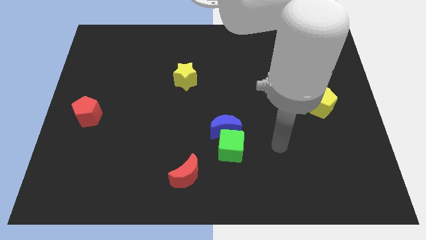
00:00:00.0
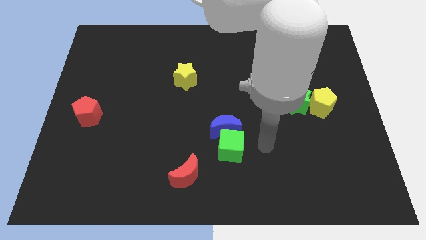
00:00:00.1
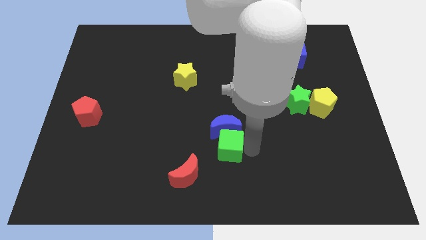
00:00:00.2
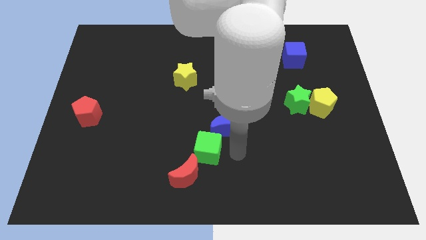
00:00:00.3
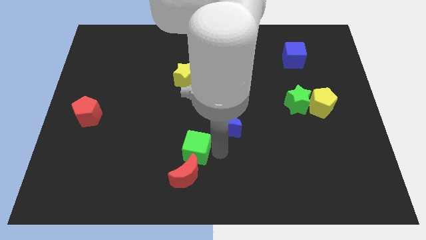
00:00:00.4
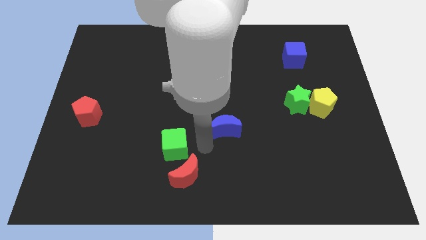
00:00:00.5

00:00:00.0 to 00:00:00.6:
move the blue moon away from the green cube

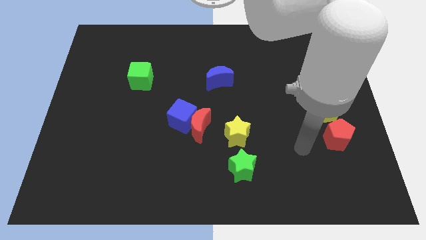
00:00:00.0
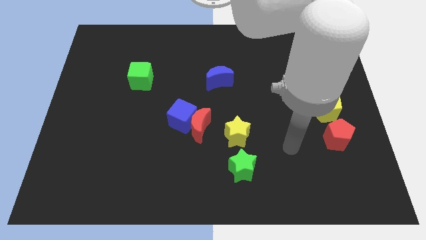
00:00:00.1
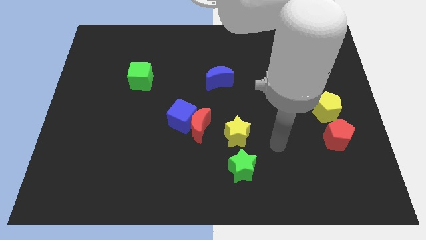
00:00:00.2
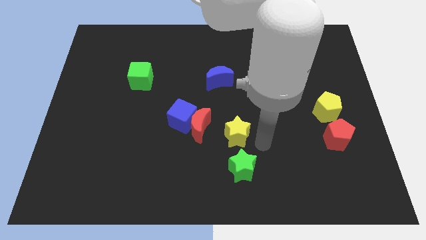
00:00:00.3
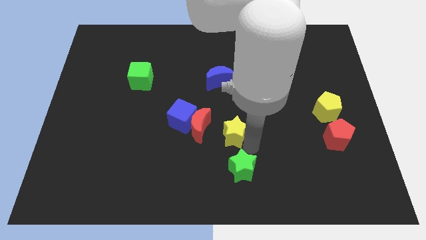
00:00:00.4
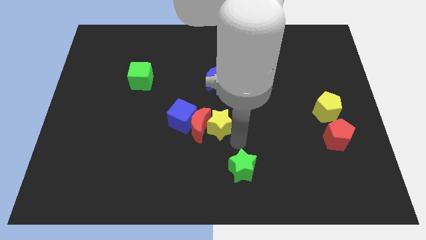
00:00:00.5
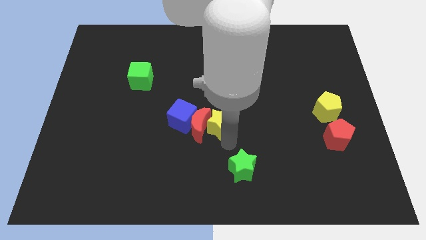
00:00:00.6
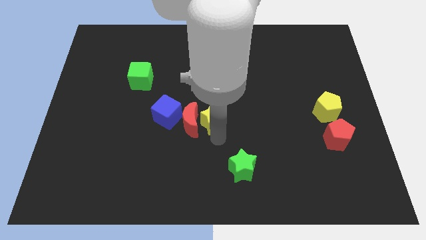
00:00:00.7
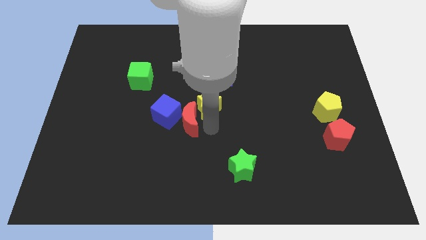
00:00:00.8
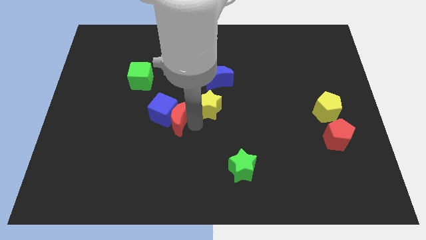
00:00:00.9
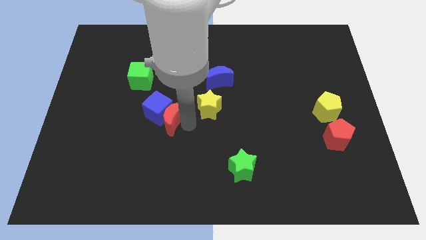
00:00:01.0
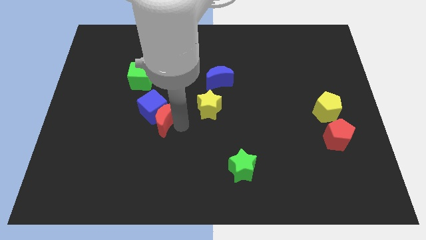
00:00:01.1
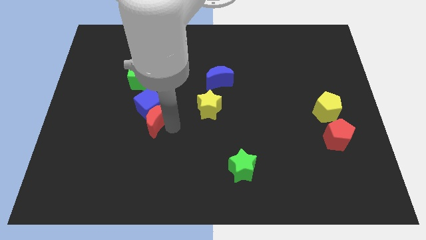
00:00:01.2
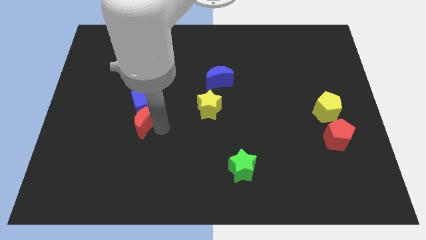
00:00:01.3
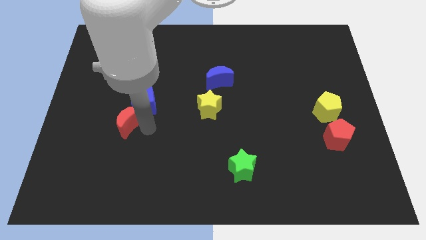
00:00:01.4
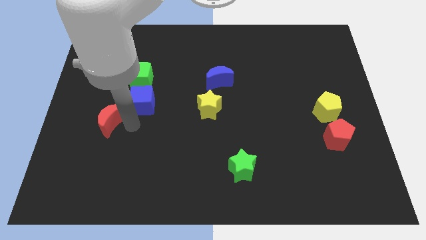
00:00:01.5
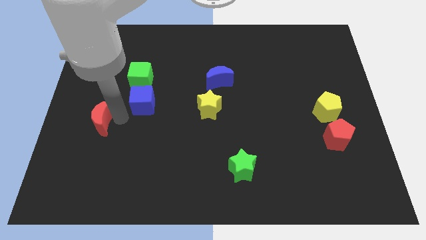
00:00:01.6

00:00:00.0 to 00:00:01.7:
pull the blue cube apart from the red moon

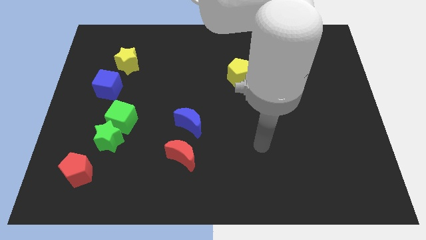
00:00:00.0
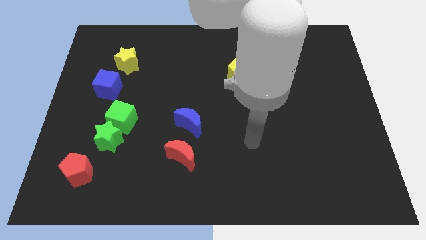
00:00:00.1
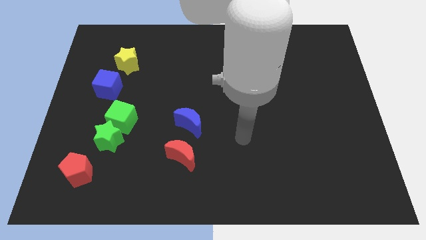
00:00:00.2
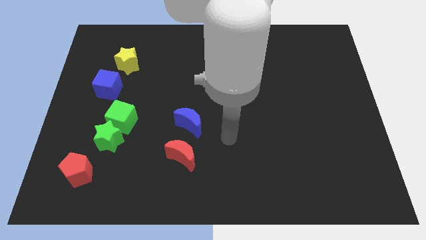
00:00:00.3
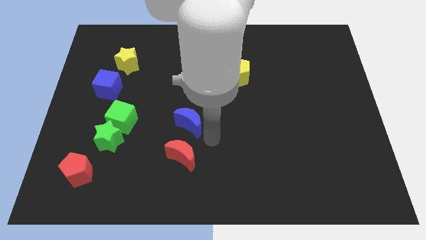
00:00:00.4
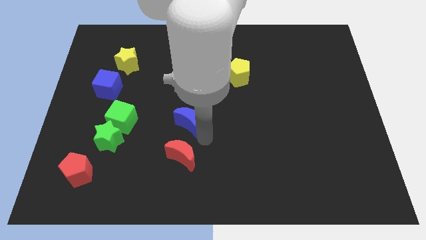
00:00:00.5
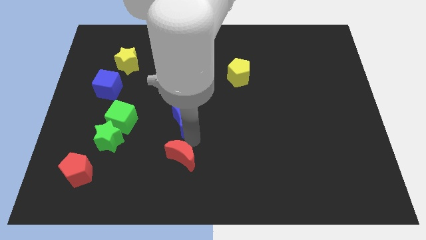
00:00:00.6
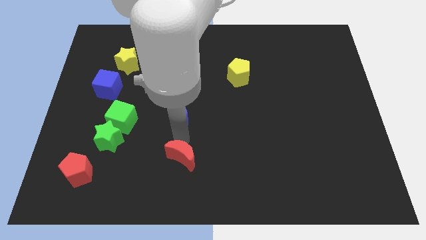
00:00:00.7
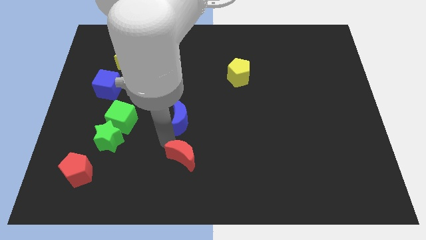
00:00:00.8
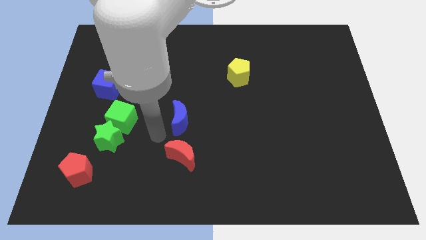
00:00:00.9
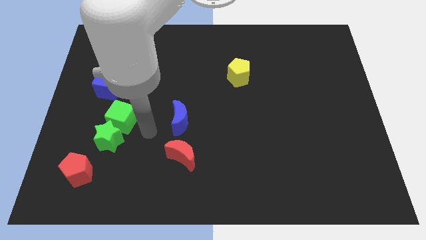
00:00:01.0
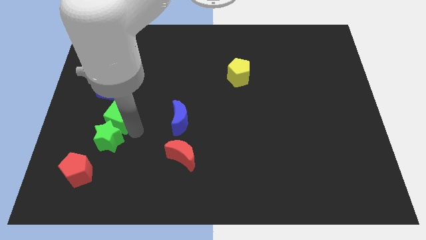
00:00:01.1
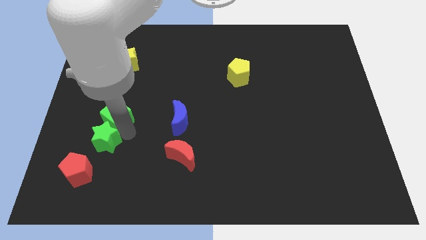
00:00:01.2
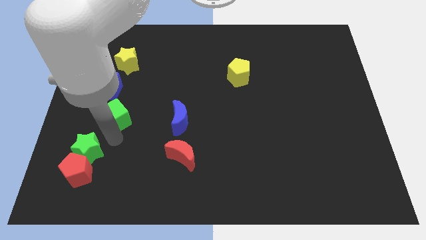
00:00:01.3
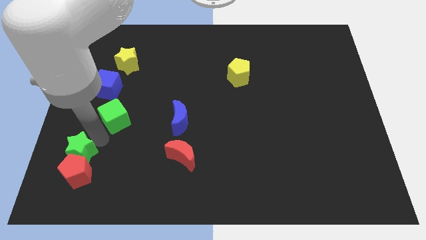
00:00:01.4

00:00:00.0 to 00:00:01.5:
move the green cube away from the green star

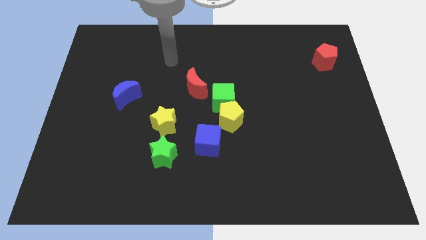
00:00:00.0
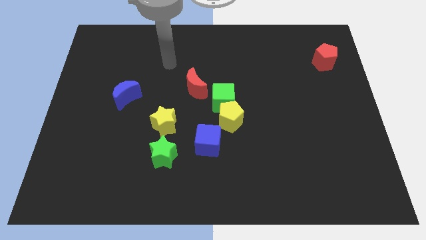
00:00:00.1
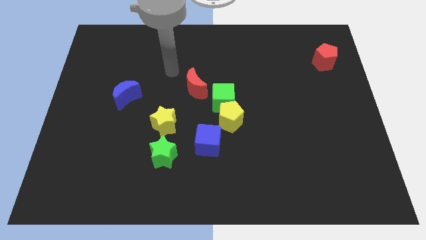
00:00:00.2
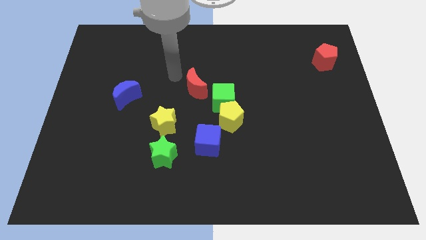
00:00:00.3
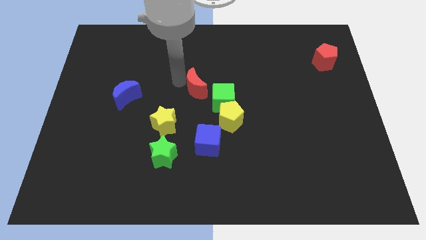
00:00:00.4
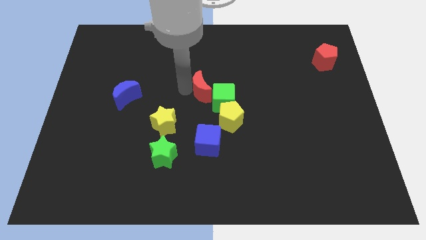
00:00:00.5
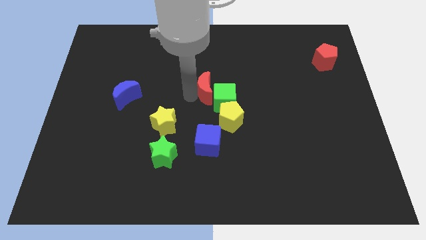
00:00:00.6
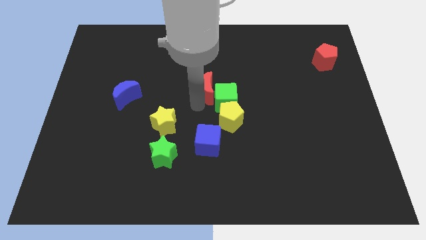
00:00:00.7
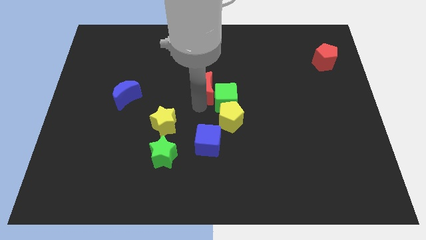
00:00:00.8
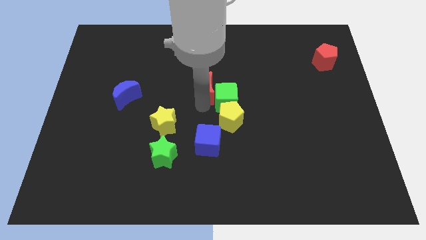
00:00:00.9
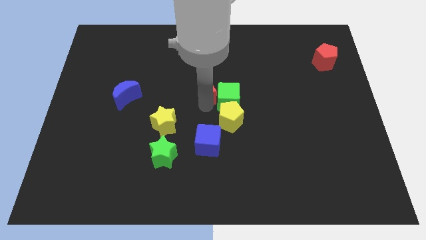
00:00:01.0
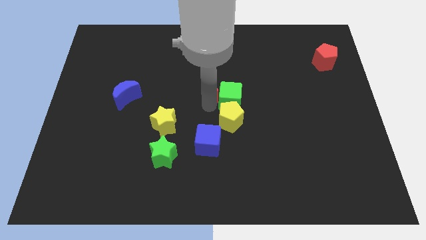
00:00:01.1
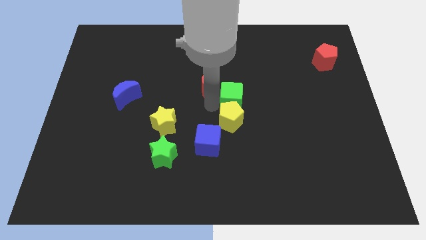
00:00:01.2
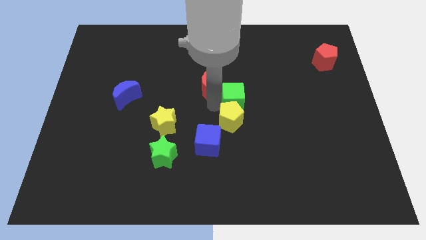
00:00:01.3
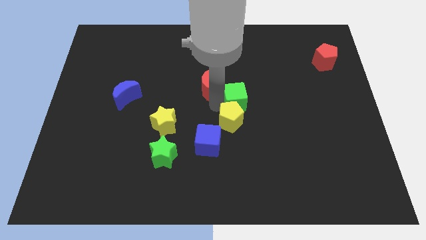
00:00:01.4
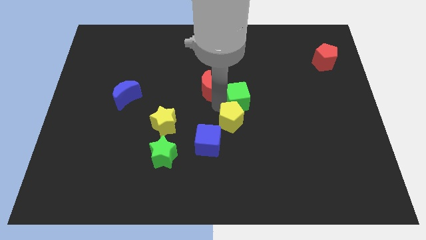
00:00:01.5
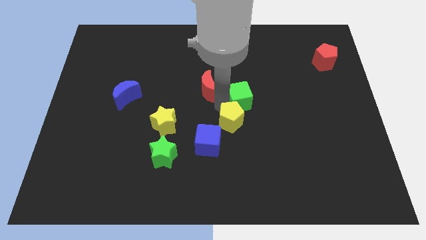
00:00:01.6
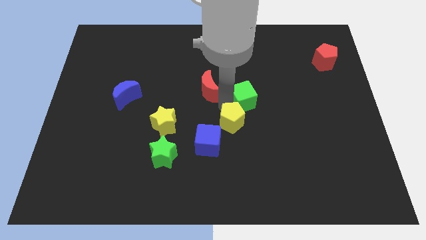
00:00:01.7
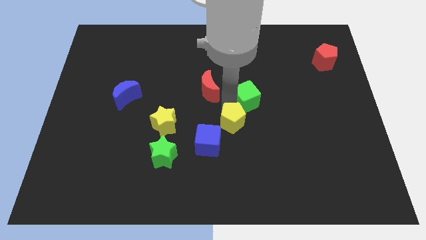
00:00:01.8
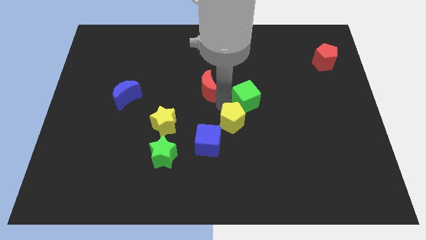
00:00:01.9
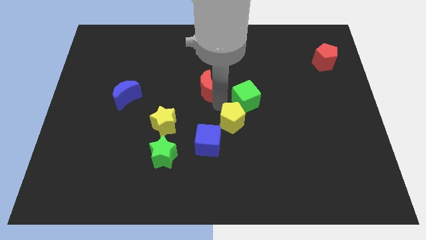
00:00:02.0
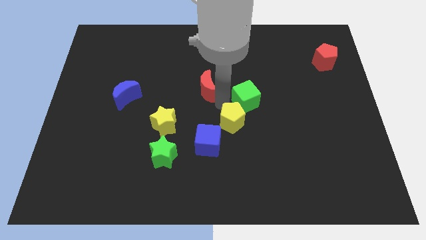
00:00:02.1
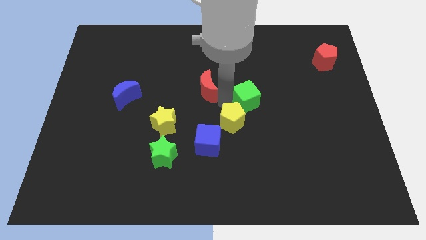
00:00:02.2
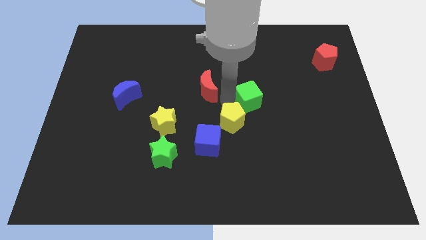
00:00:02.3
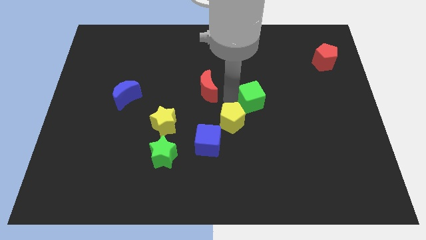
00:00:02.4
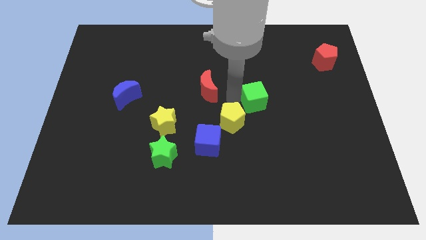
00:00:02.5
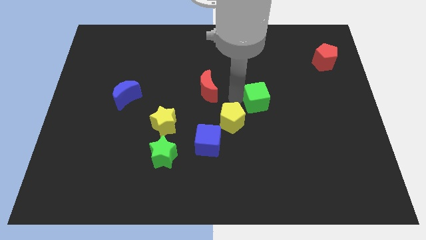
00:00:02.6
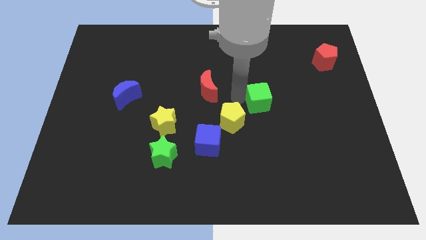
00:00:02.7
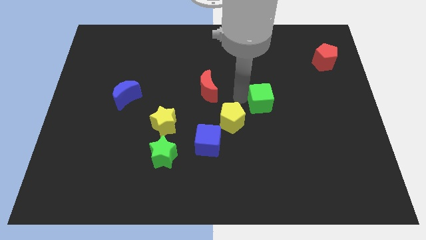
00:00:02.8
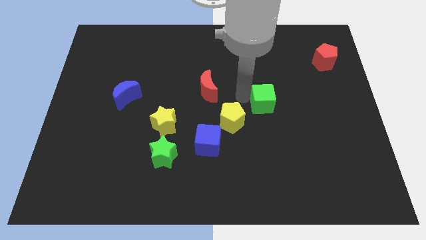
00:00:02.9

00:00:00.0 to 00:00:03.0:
separate the green cube from the yellow pentagon and red moon

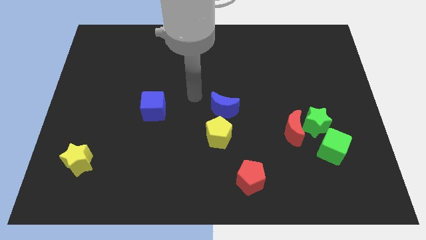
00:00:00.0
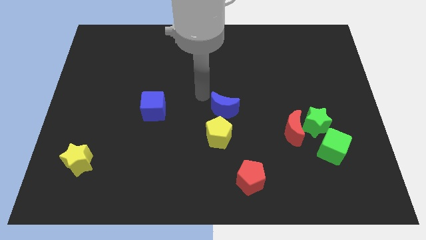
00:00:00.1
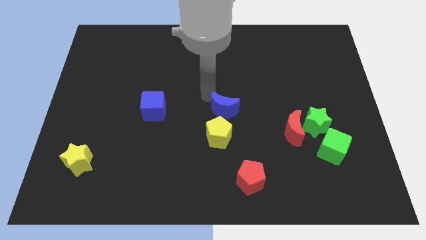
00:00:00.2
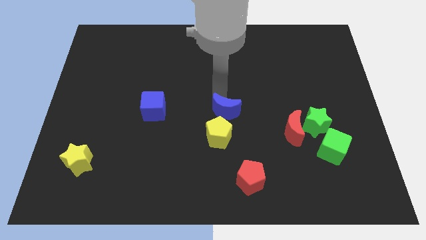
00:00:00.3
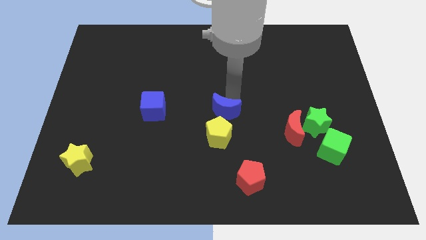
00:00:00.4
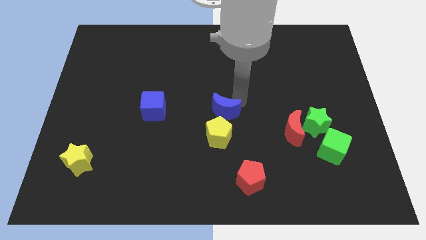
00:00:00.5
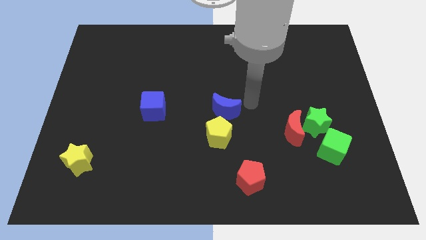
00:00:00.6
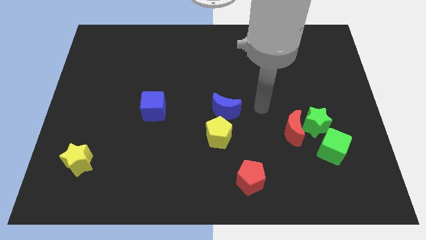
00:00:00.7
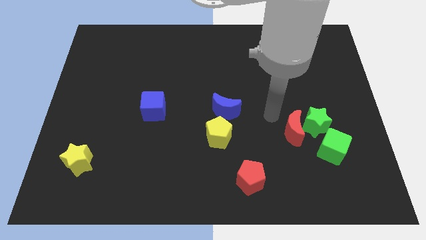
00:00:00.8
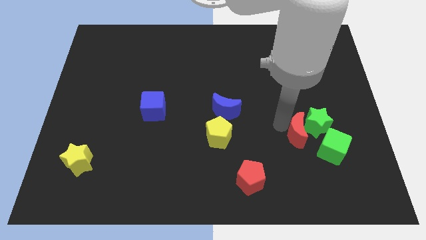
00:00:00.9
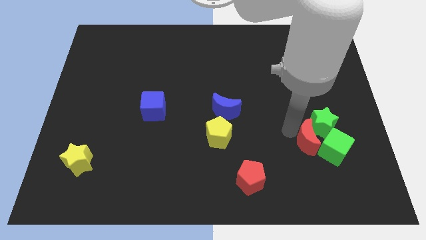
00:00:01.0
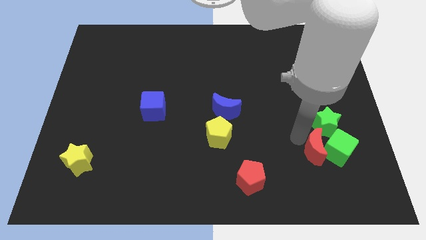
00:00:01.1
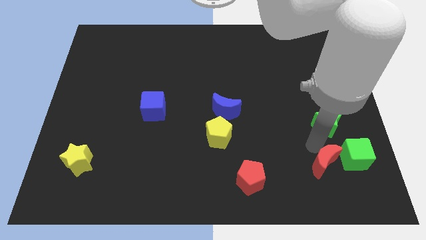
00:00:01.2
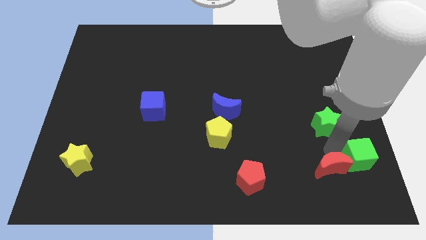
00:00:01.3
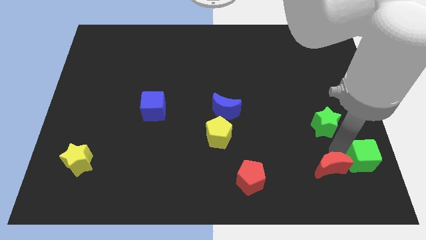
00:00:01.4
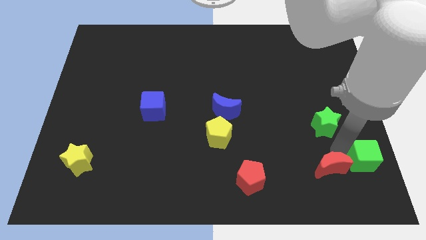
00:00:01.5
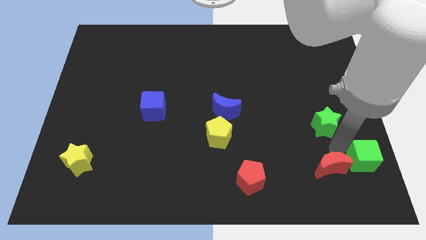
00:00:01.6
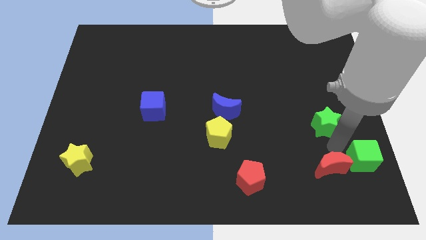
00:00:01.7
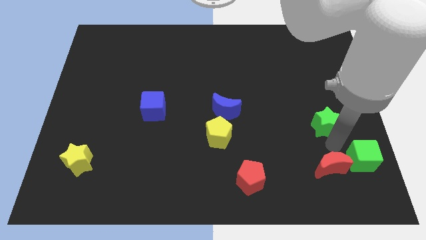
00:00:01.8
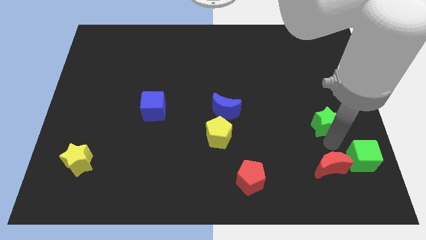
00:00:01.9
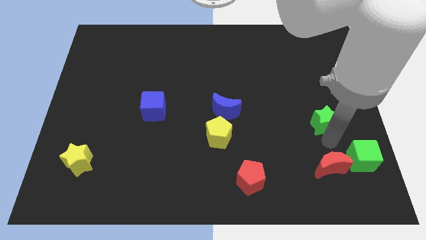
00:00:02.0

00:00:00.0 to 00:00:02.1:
pull the green star apart from the red moon and green cube

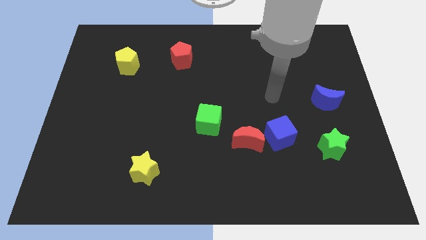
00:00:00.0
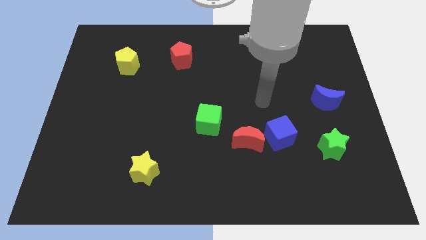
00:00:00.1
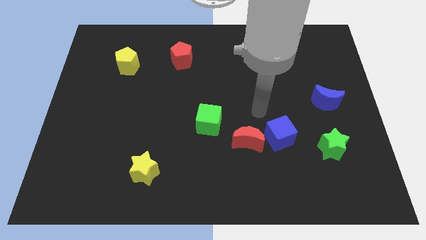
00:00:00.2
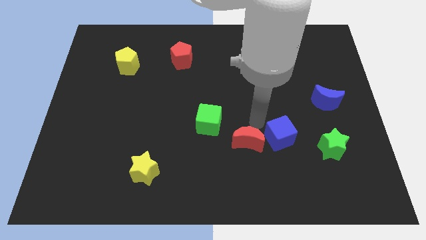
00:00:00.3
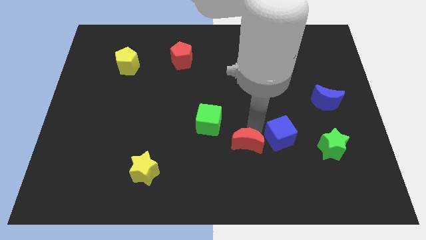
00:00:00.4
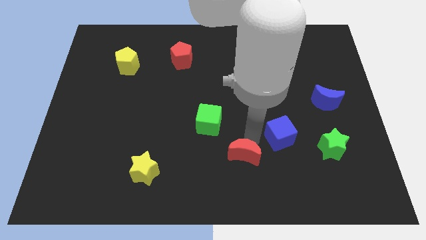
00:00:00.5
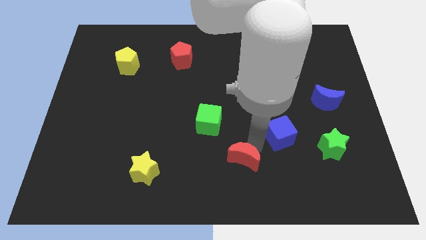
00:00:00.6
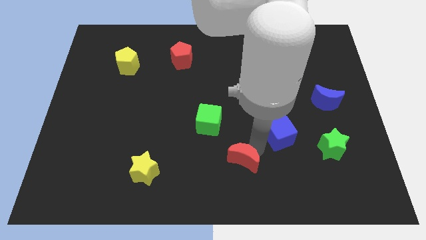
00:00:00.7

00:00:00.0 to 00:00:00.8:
separate the blue cube from the red moon
